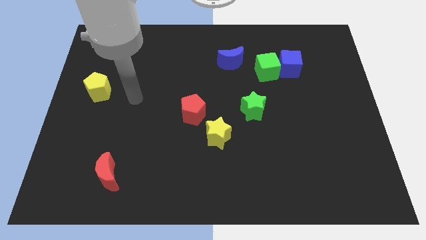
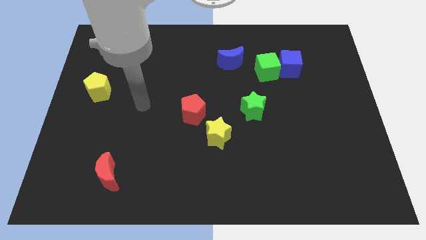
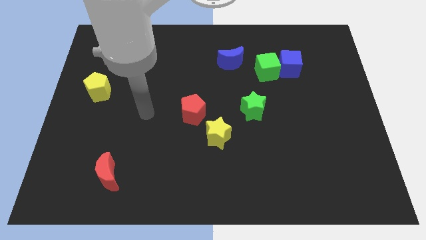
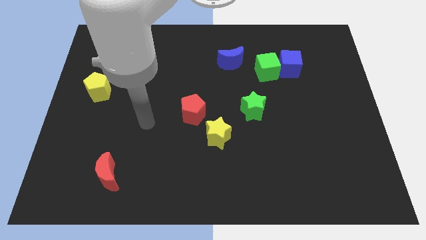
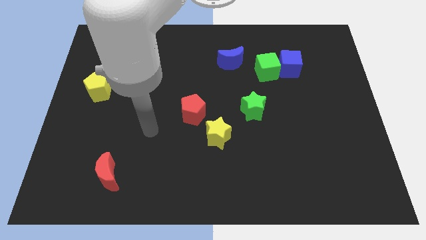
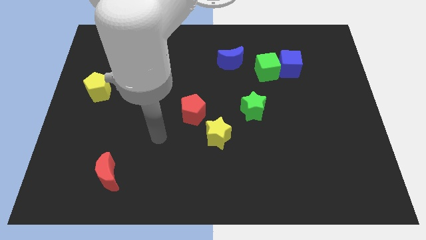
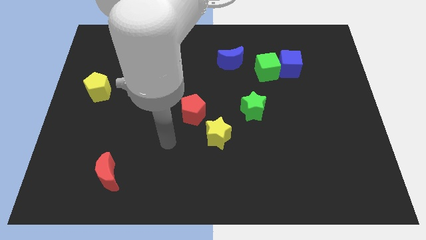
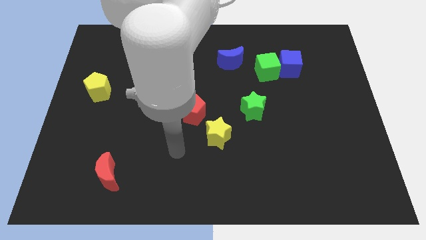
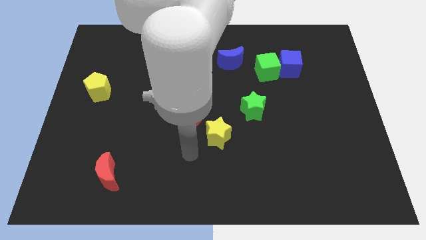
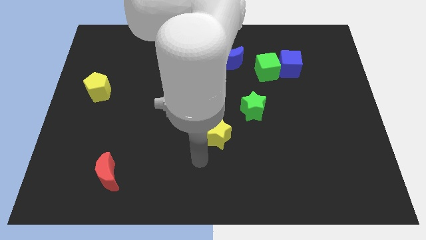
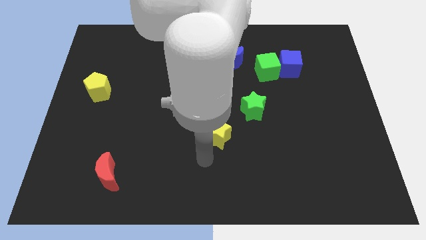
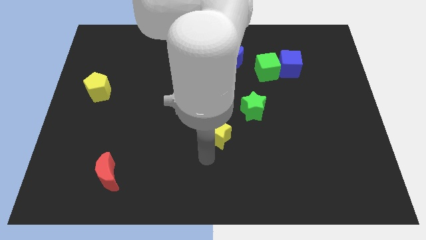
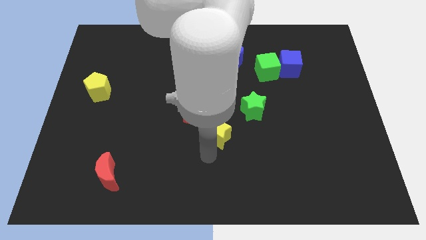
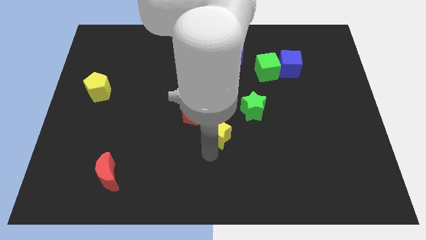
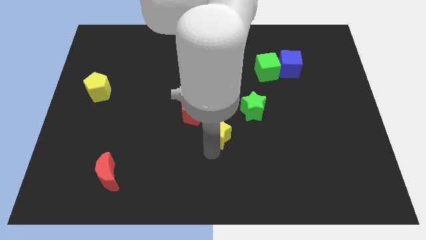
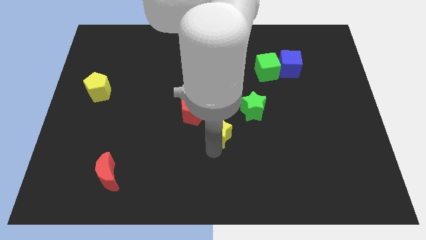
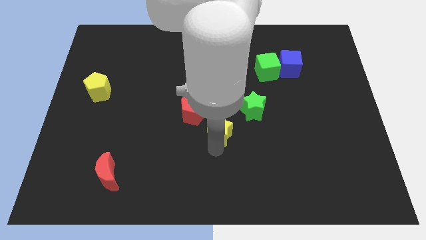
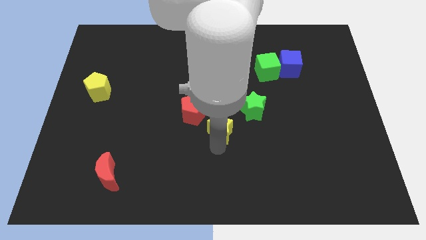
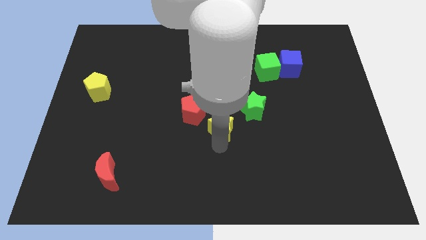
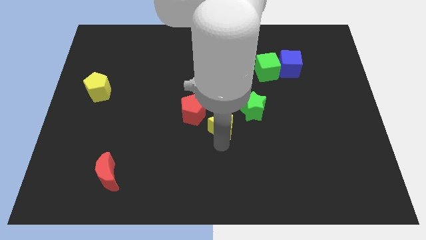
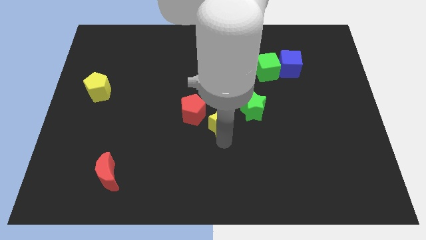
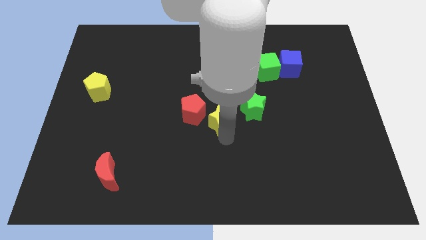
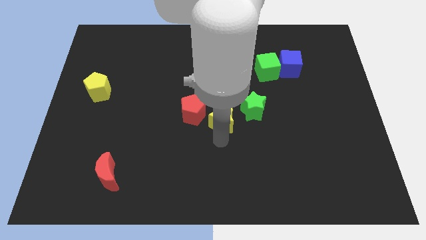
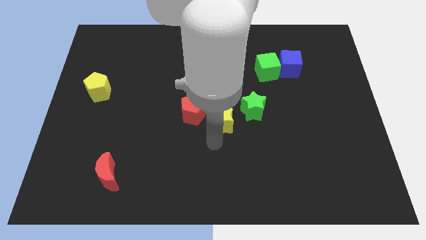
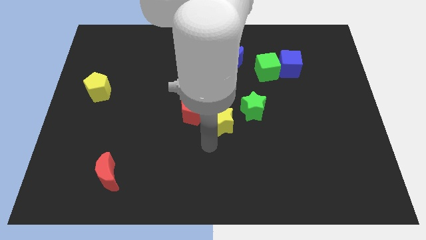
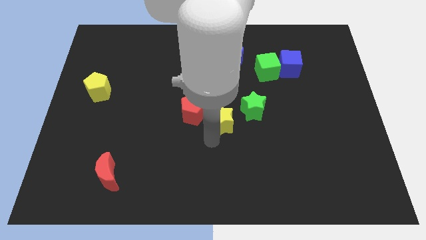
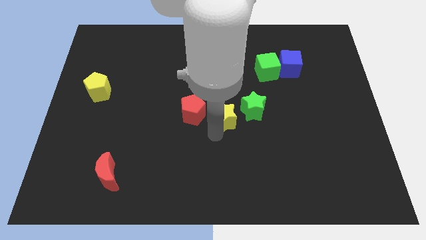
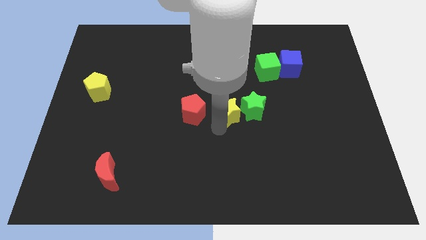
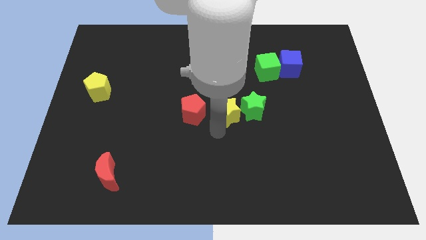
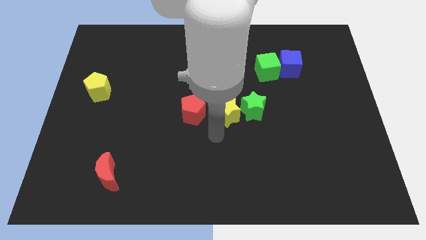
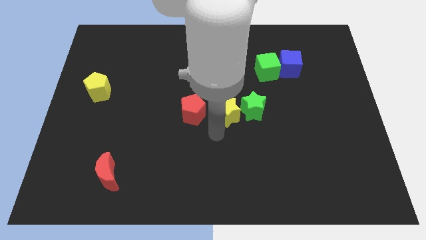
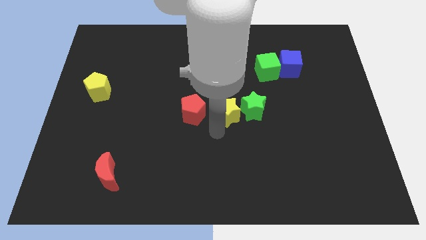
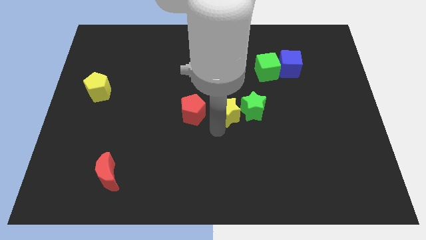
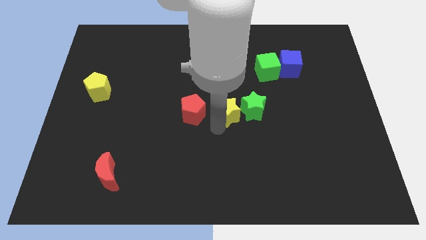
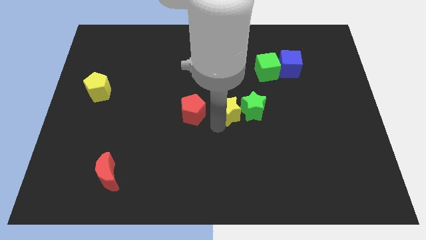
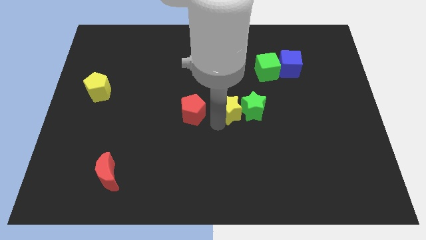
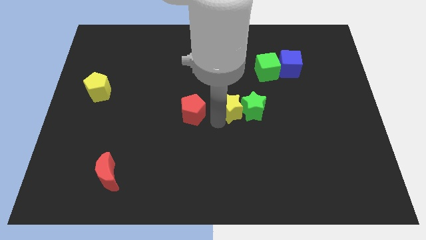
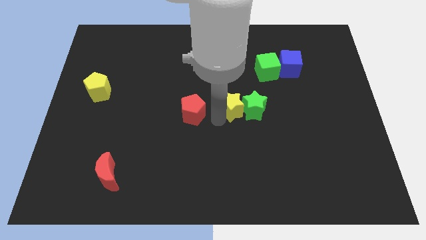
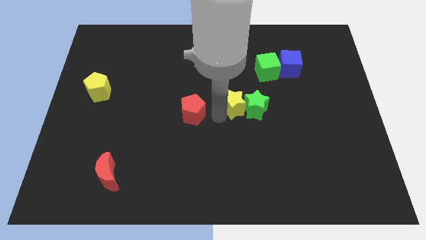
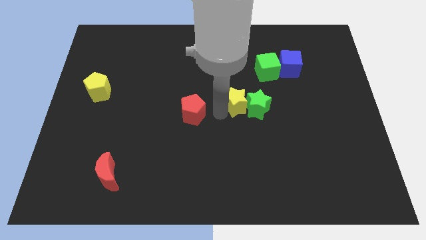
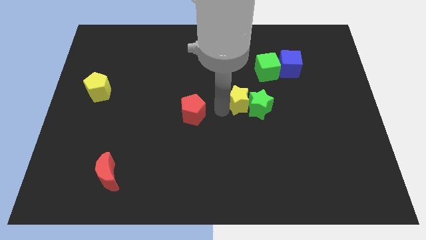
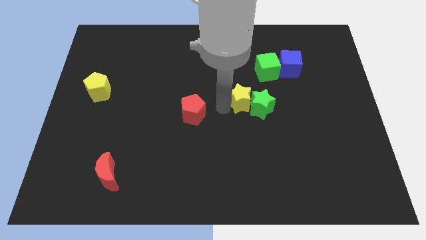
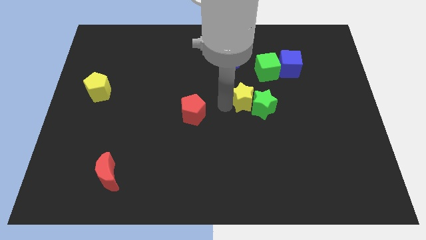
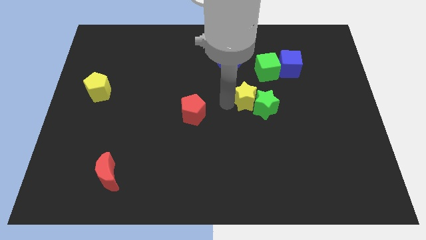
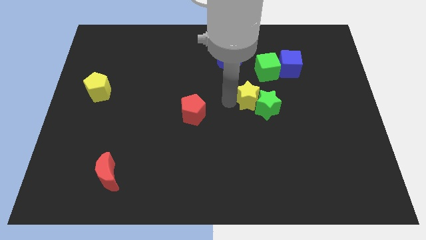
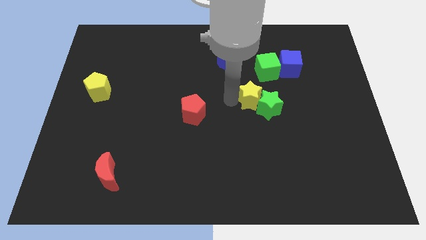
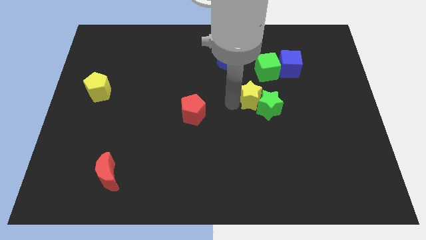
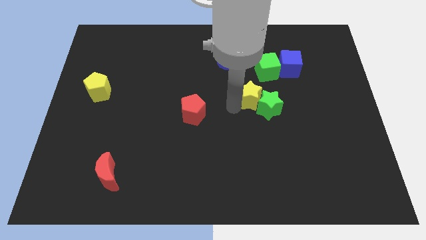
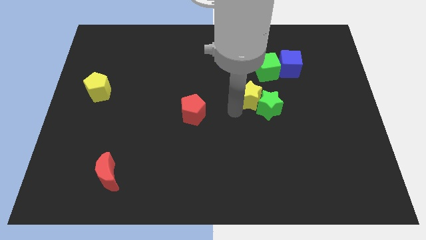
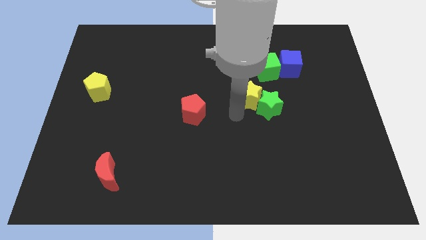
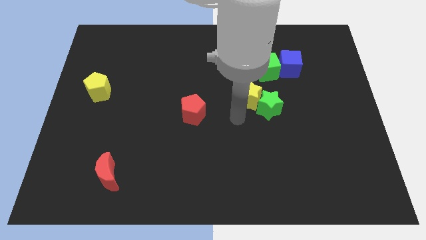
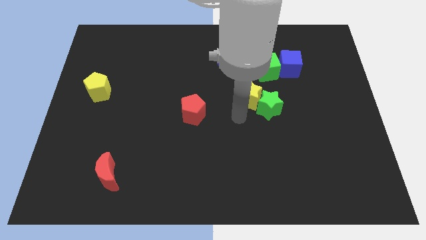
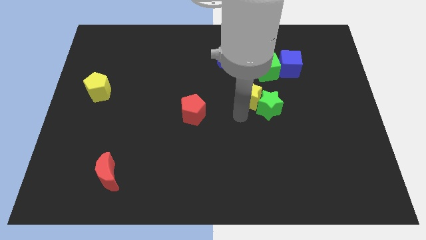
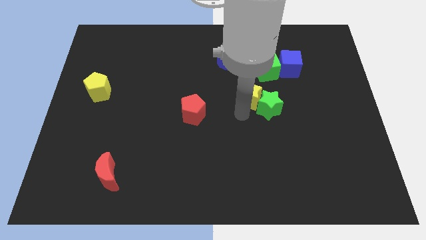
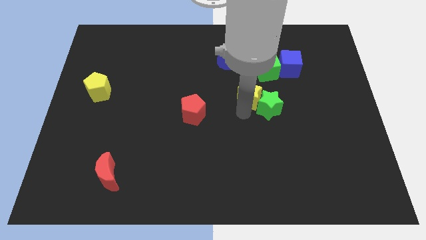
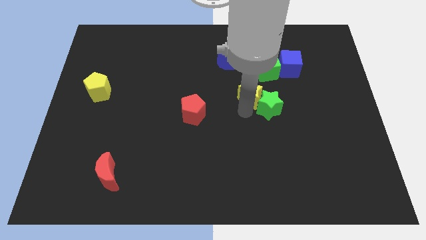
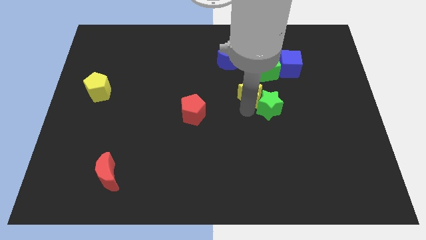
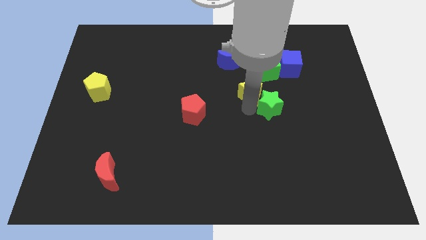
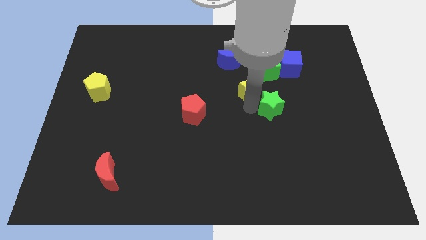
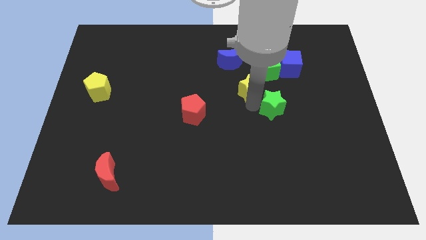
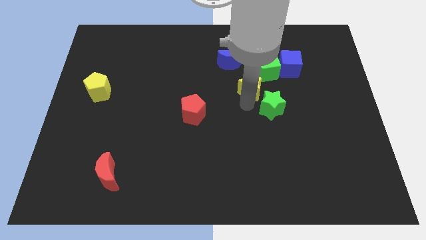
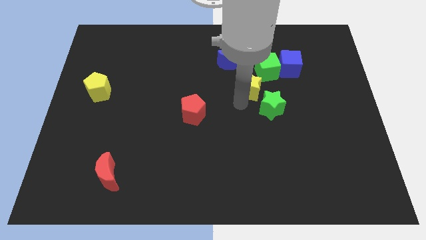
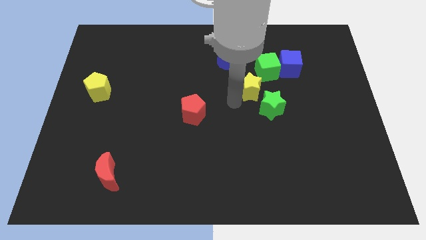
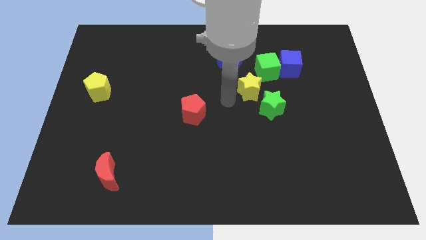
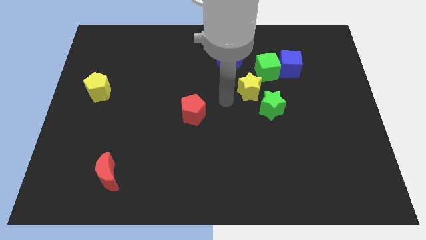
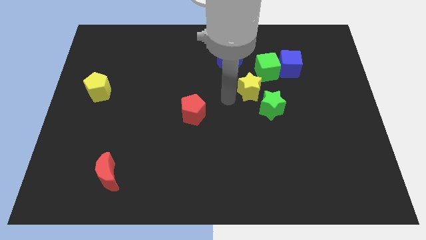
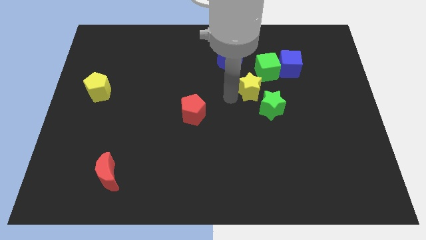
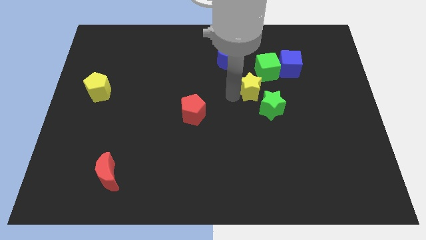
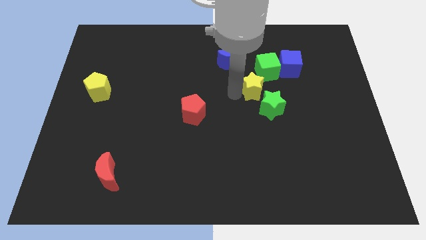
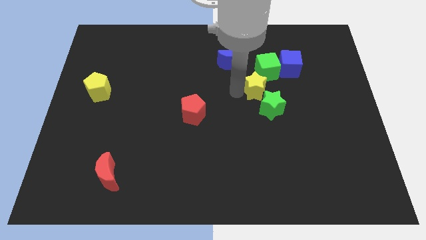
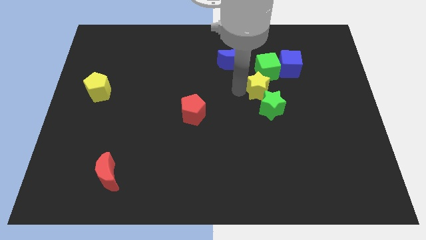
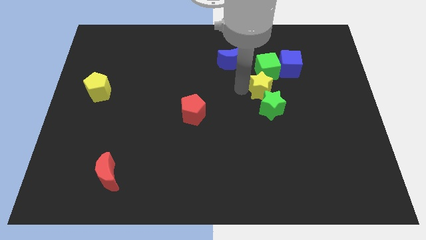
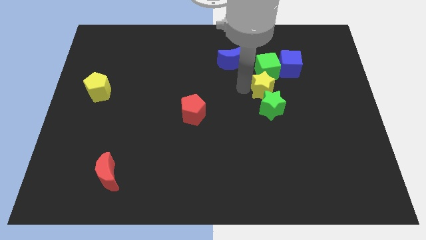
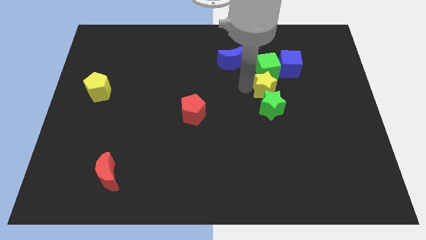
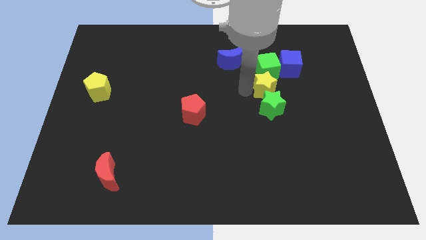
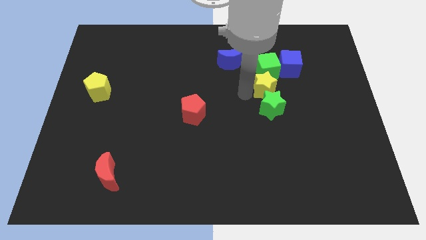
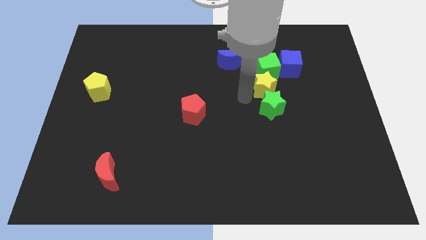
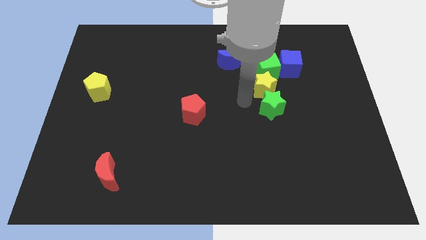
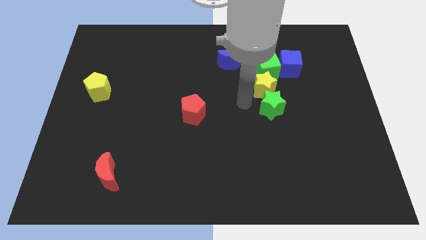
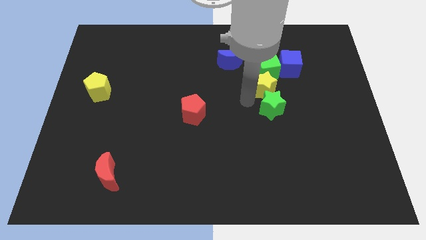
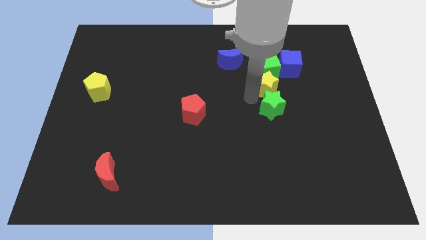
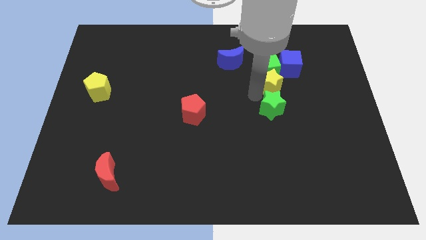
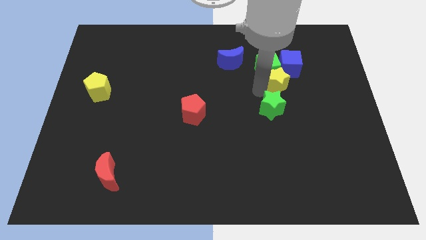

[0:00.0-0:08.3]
move the yellow star upwards and right diagonally
